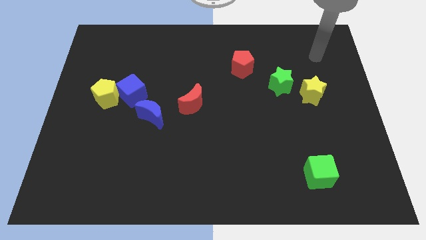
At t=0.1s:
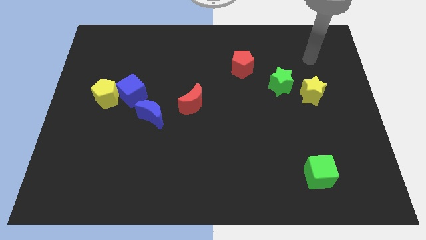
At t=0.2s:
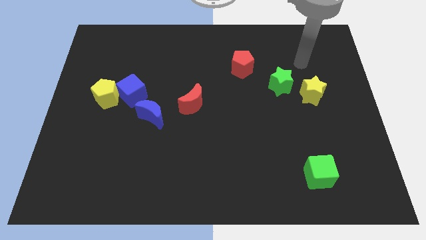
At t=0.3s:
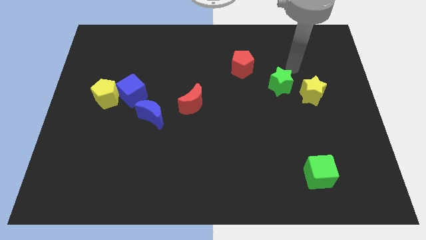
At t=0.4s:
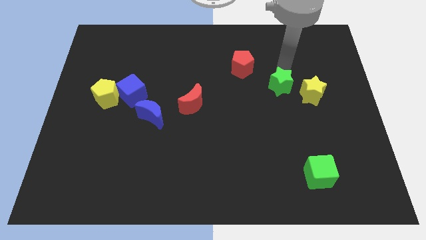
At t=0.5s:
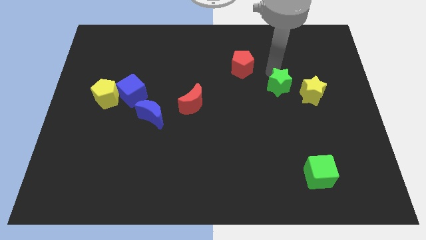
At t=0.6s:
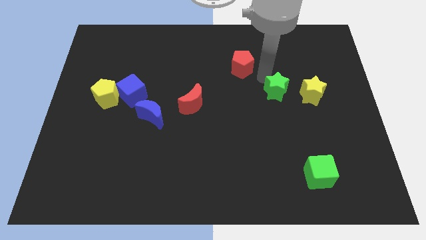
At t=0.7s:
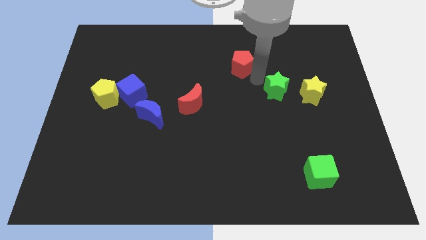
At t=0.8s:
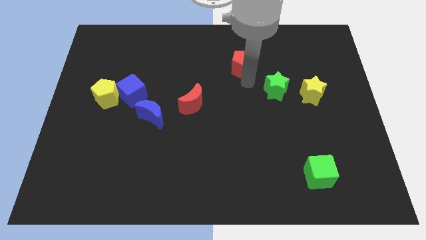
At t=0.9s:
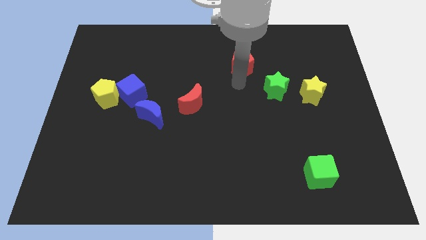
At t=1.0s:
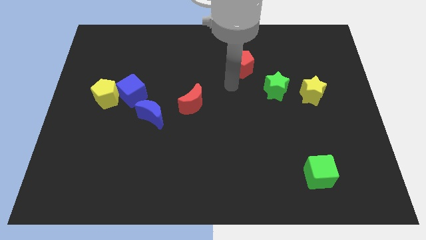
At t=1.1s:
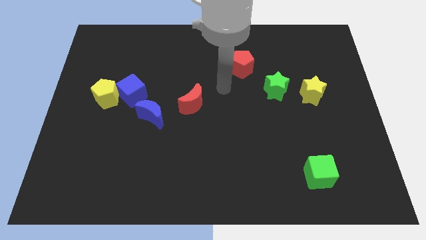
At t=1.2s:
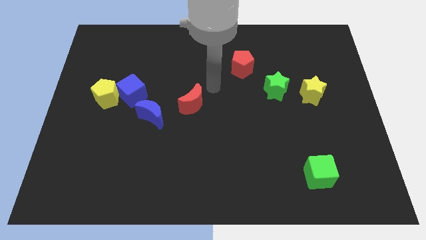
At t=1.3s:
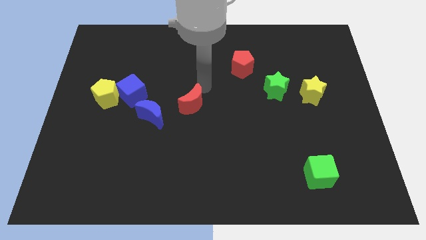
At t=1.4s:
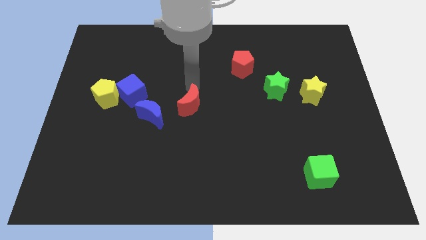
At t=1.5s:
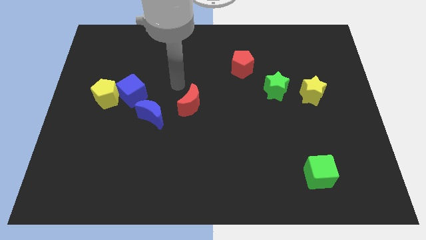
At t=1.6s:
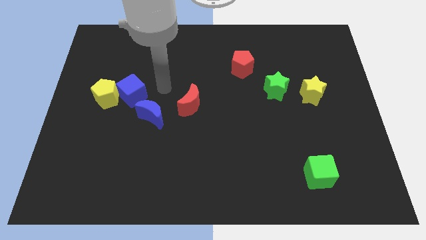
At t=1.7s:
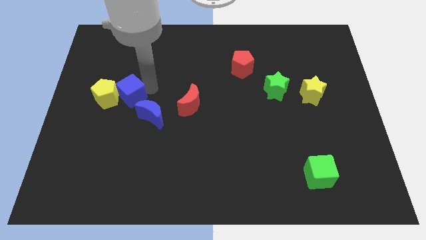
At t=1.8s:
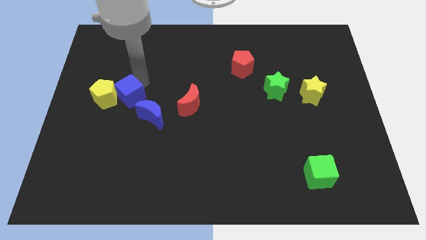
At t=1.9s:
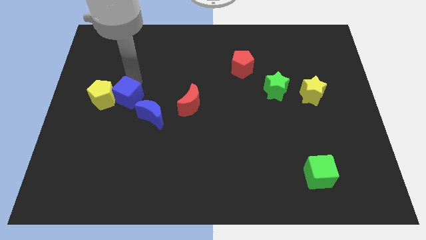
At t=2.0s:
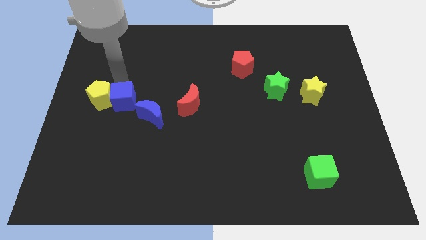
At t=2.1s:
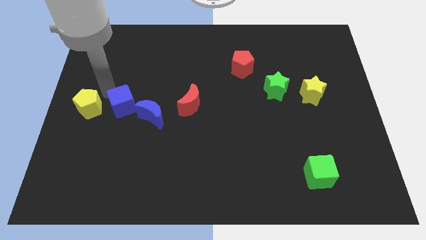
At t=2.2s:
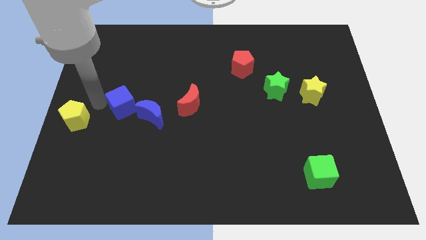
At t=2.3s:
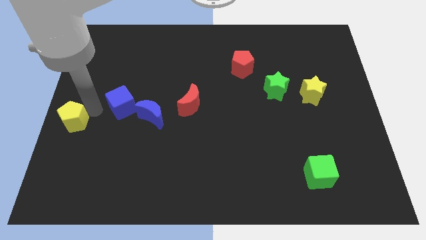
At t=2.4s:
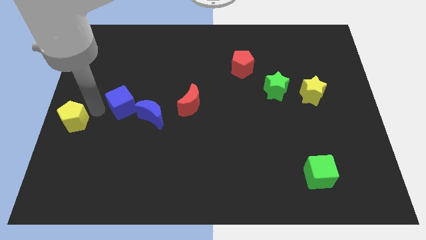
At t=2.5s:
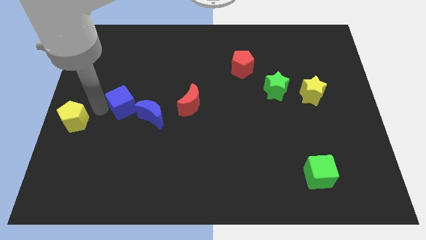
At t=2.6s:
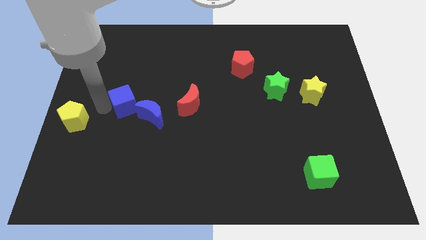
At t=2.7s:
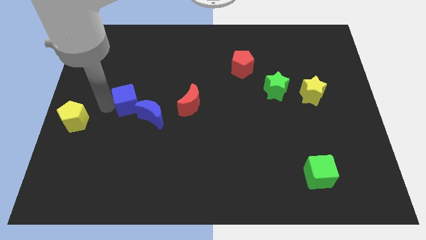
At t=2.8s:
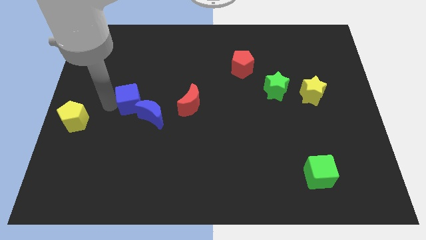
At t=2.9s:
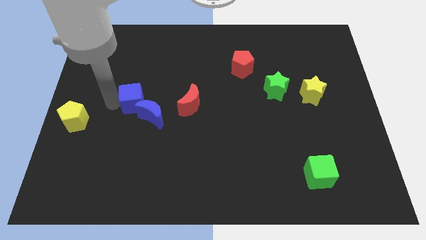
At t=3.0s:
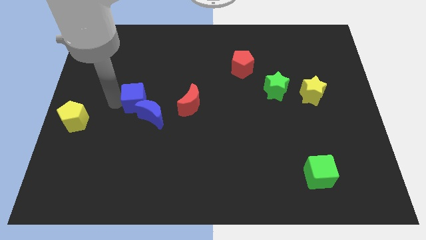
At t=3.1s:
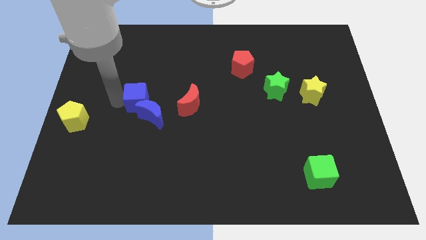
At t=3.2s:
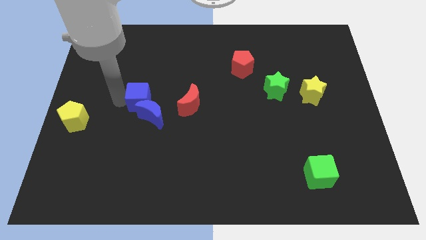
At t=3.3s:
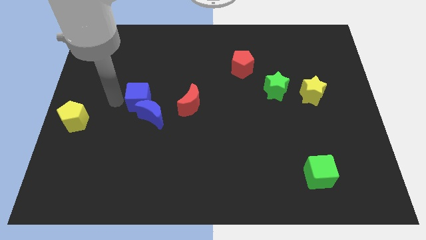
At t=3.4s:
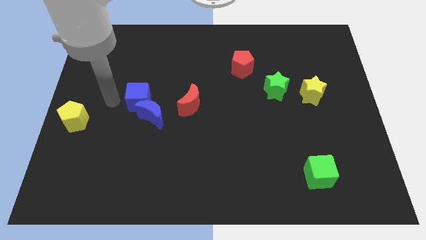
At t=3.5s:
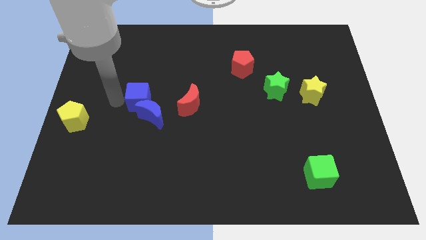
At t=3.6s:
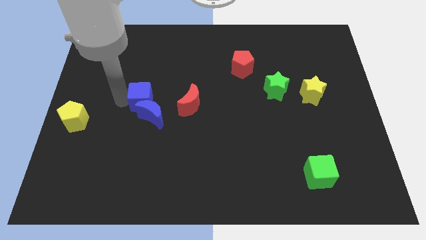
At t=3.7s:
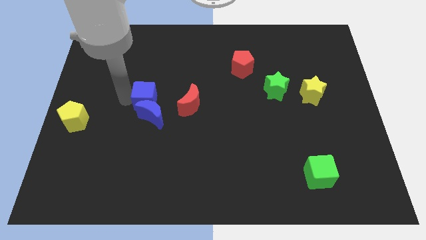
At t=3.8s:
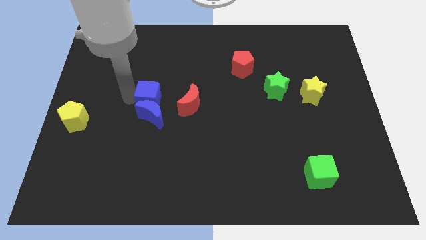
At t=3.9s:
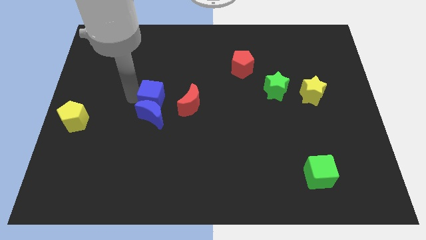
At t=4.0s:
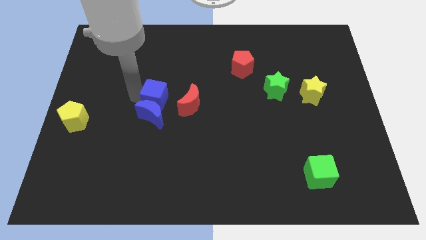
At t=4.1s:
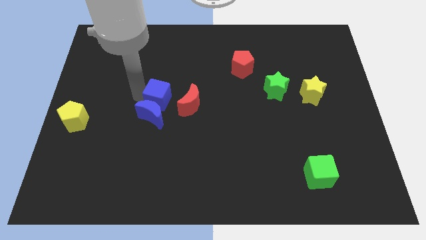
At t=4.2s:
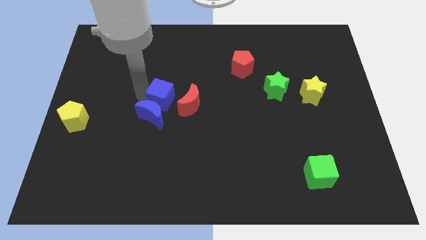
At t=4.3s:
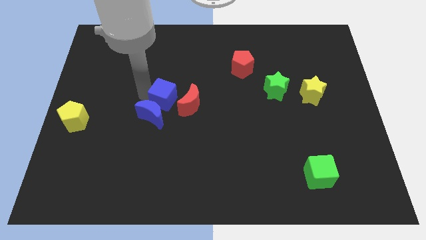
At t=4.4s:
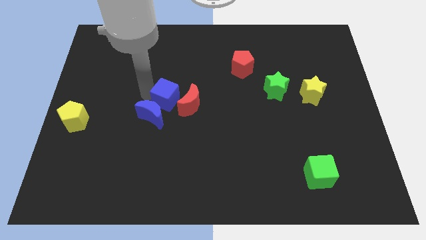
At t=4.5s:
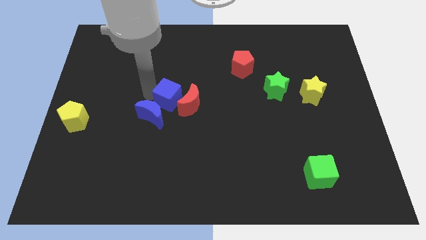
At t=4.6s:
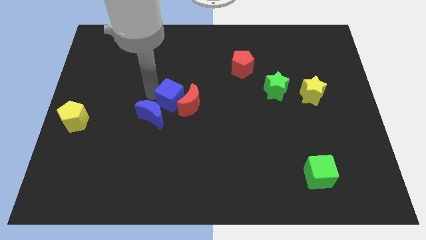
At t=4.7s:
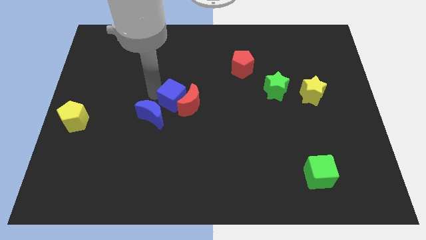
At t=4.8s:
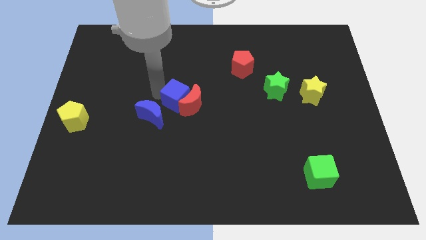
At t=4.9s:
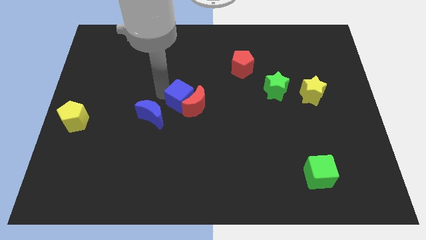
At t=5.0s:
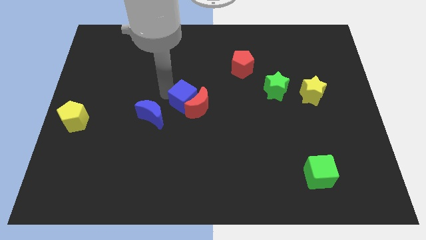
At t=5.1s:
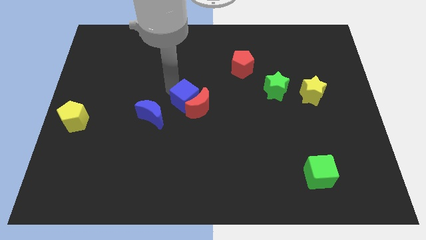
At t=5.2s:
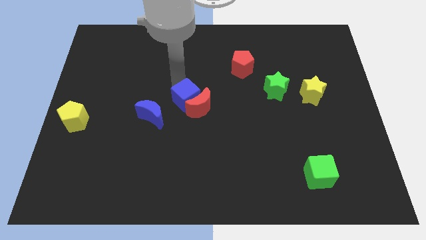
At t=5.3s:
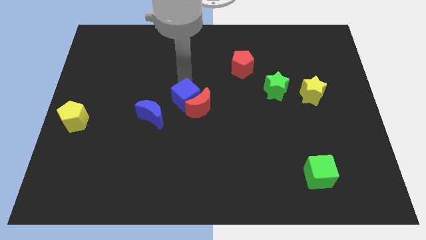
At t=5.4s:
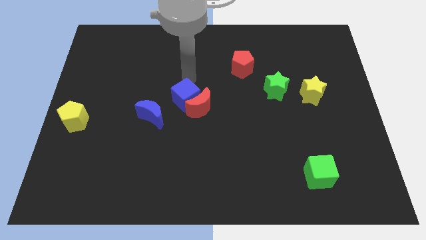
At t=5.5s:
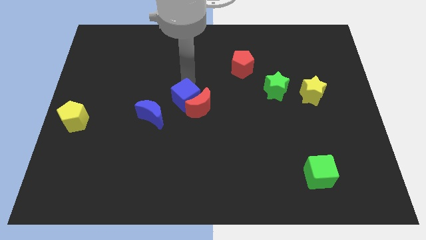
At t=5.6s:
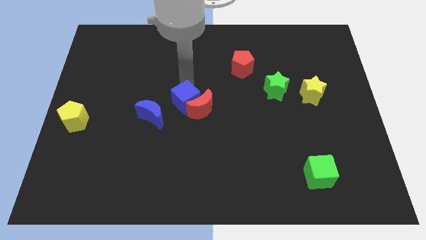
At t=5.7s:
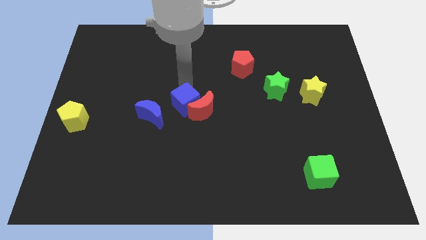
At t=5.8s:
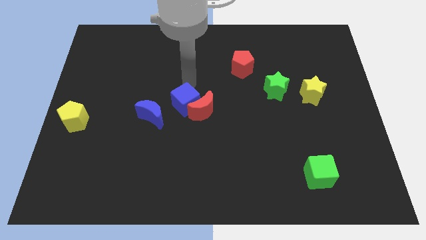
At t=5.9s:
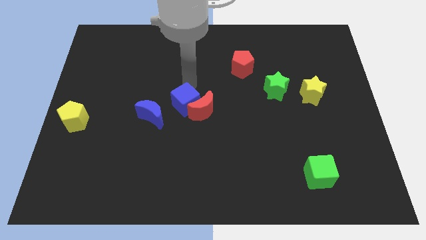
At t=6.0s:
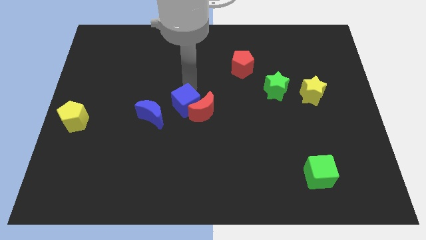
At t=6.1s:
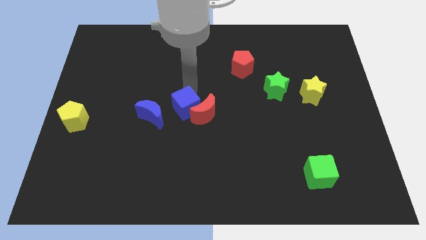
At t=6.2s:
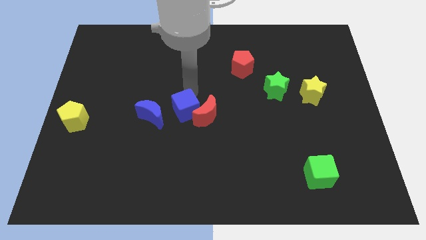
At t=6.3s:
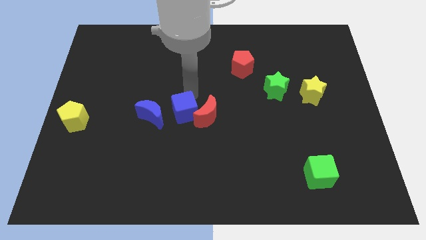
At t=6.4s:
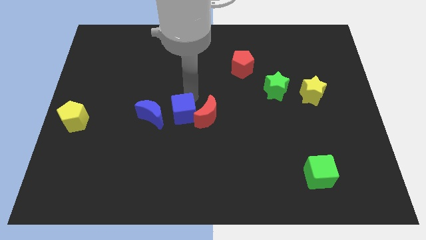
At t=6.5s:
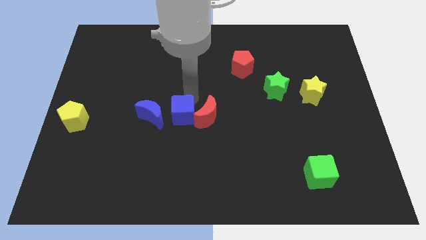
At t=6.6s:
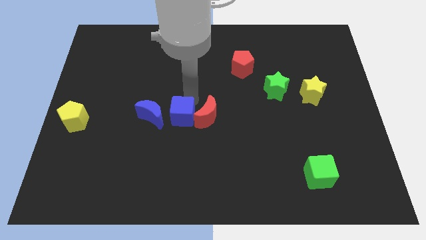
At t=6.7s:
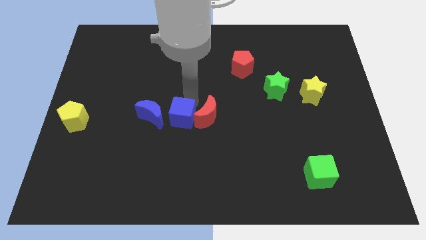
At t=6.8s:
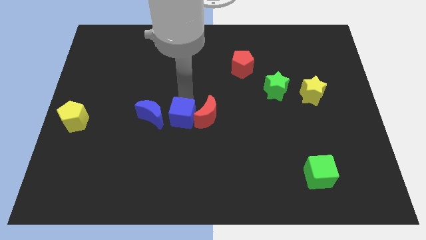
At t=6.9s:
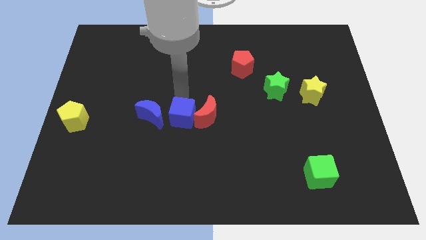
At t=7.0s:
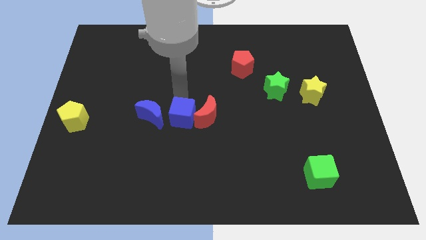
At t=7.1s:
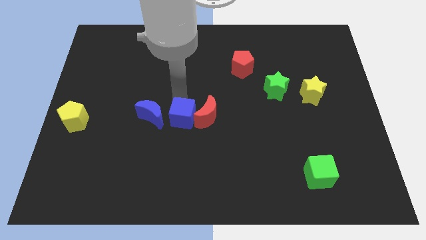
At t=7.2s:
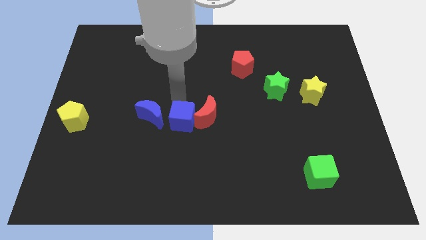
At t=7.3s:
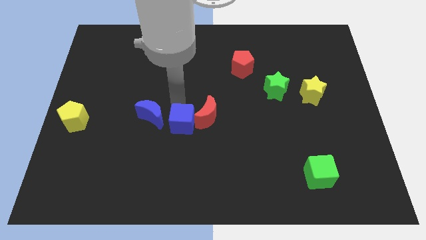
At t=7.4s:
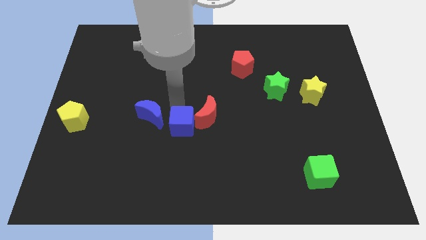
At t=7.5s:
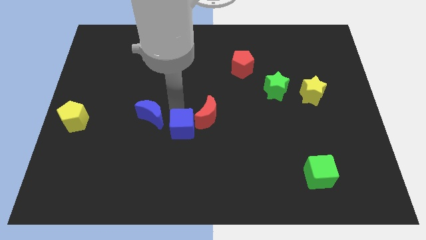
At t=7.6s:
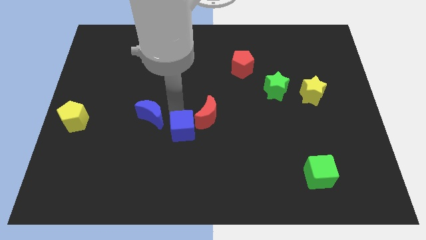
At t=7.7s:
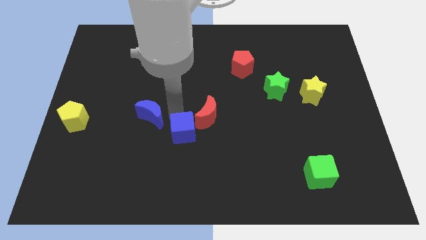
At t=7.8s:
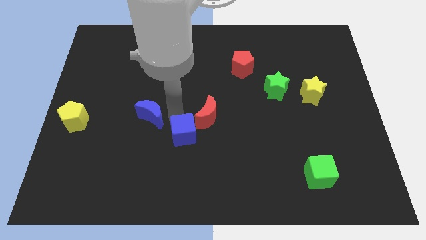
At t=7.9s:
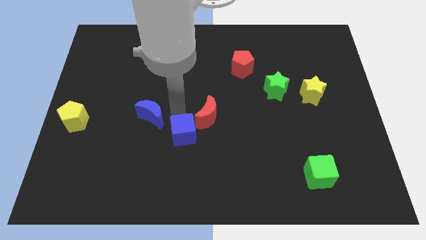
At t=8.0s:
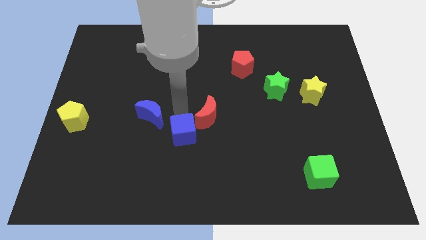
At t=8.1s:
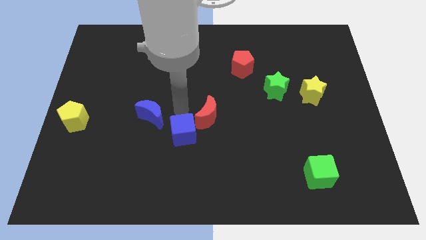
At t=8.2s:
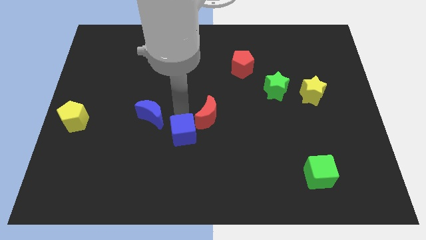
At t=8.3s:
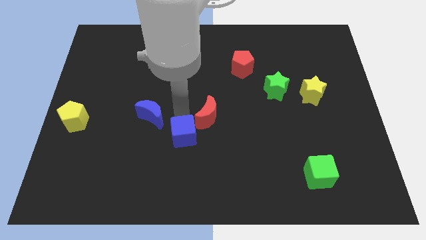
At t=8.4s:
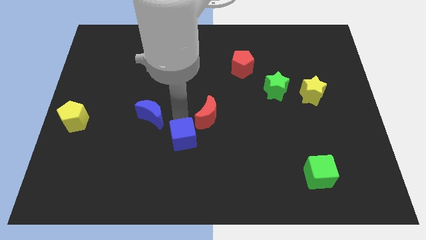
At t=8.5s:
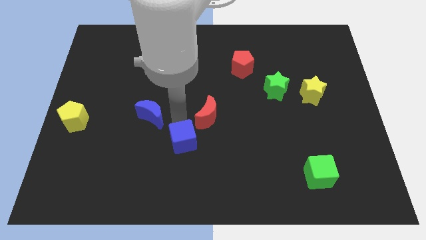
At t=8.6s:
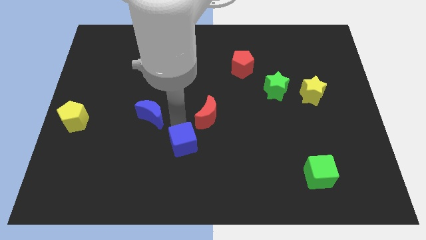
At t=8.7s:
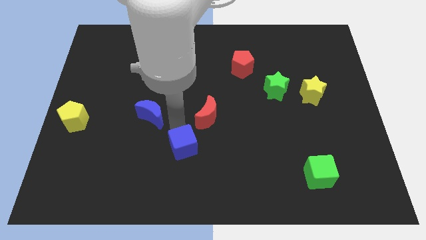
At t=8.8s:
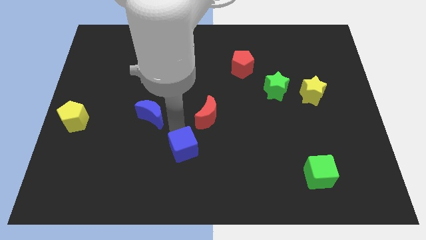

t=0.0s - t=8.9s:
move the blue cube down and to the right
